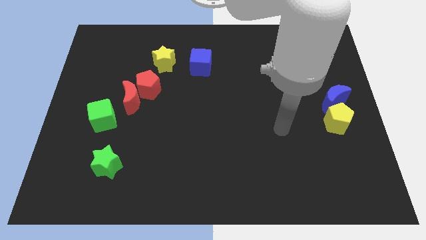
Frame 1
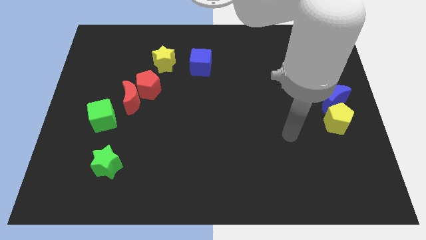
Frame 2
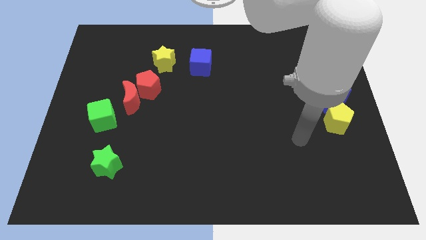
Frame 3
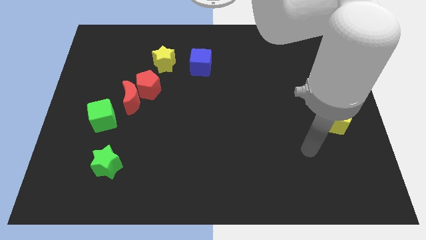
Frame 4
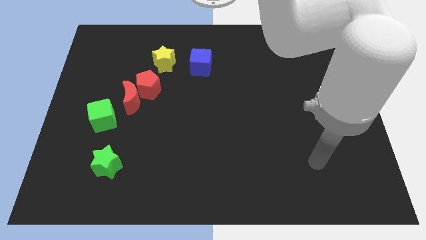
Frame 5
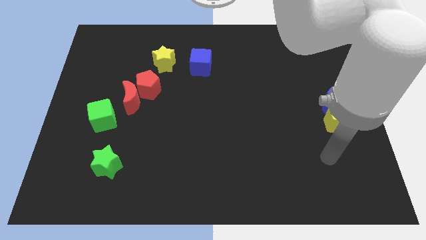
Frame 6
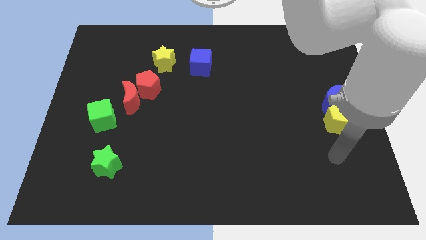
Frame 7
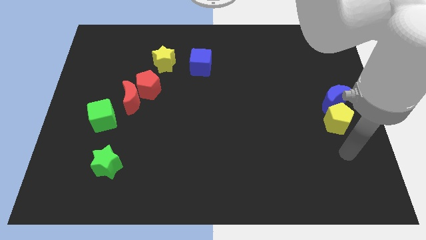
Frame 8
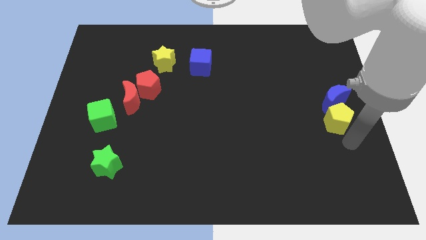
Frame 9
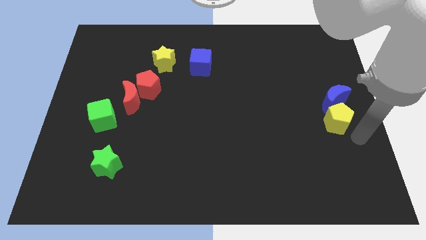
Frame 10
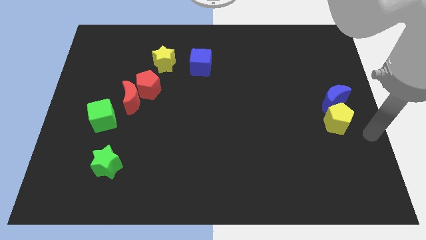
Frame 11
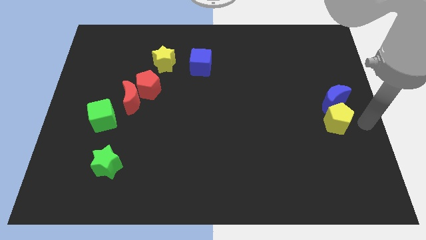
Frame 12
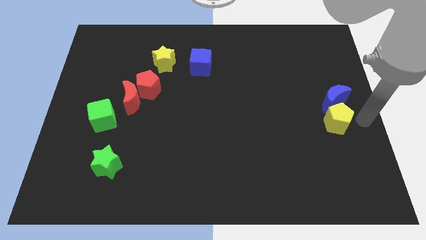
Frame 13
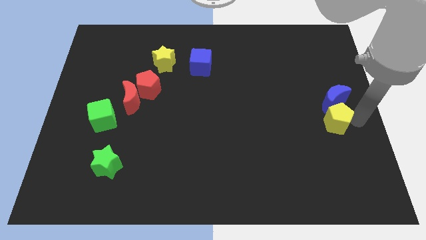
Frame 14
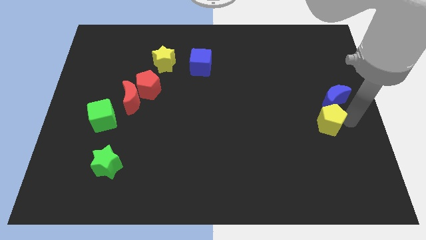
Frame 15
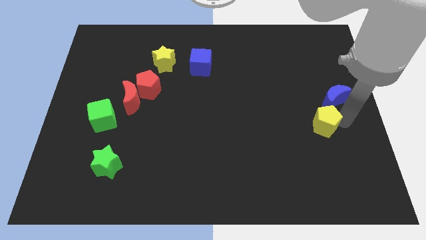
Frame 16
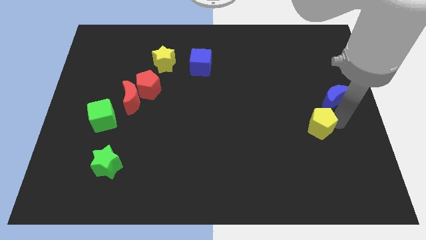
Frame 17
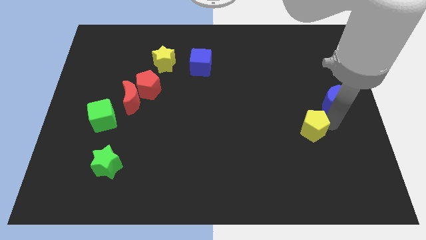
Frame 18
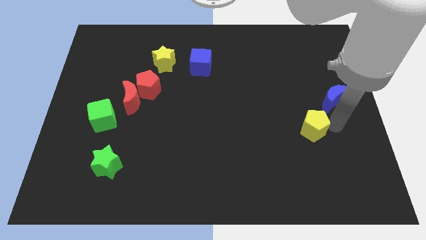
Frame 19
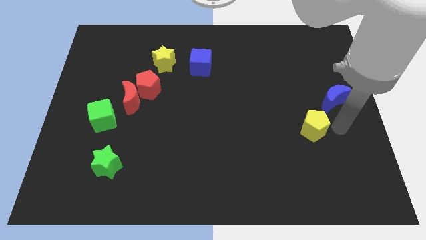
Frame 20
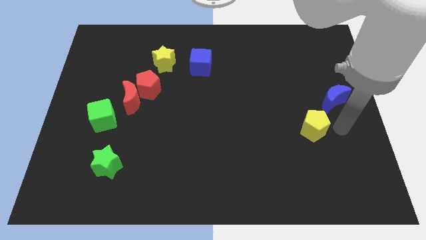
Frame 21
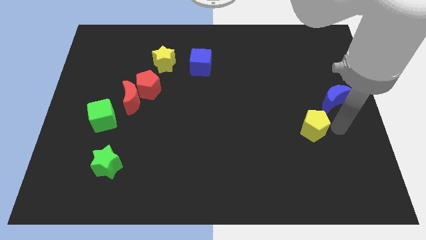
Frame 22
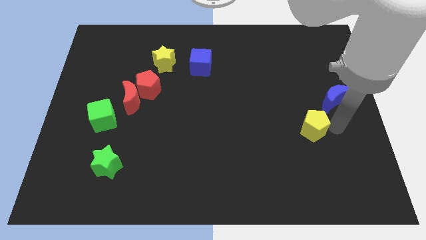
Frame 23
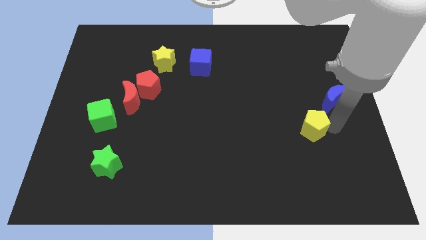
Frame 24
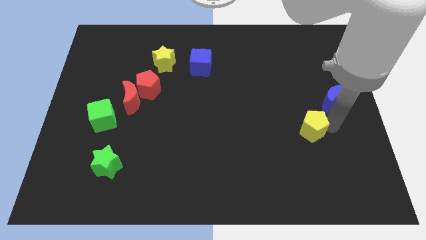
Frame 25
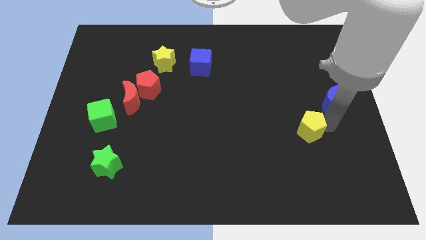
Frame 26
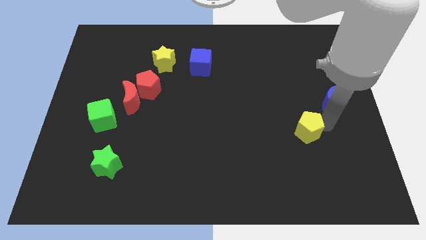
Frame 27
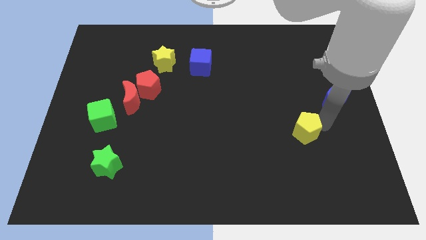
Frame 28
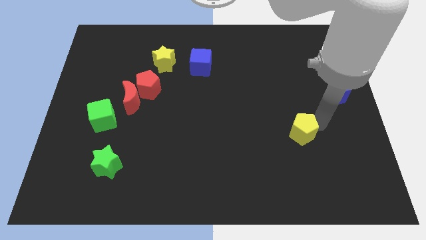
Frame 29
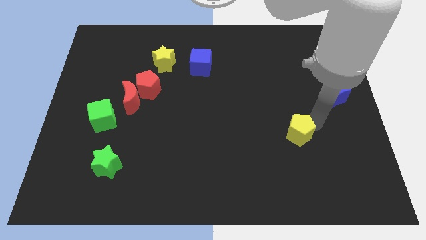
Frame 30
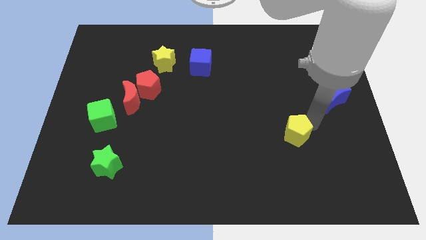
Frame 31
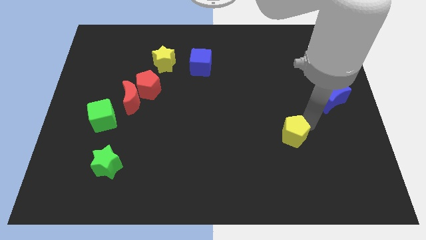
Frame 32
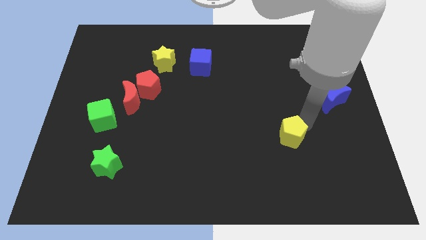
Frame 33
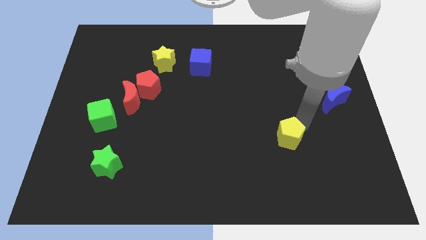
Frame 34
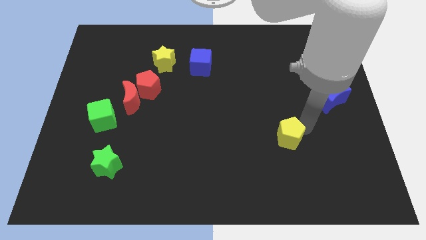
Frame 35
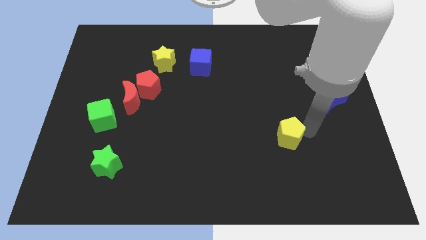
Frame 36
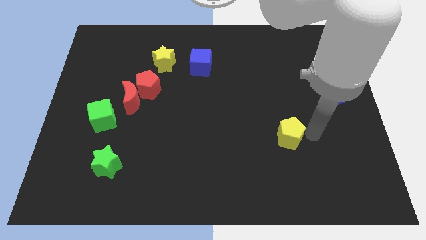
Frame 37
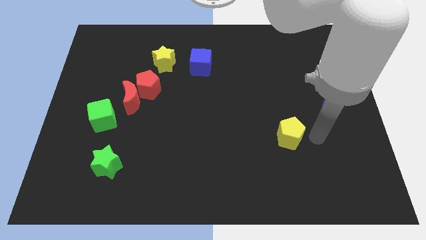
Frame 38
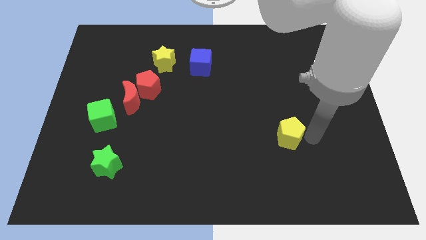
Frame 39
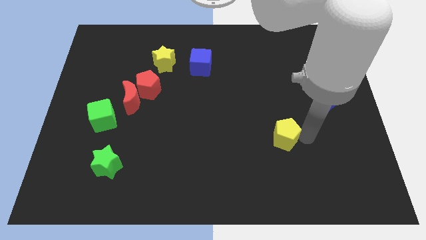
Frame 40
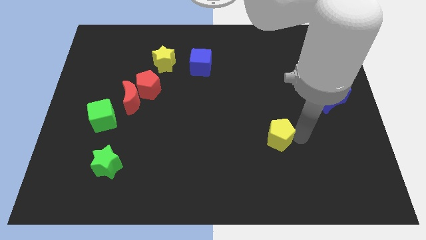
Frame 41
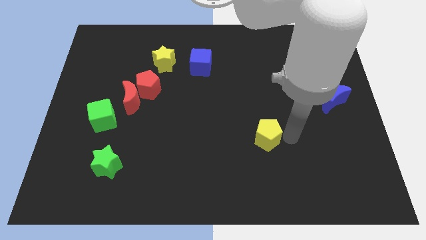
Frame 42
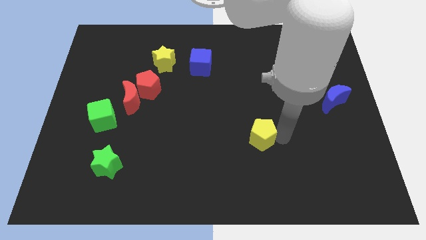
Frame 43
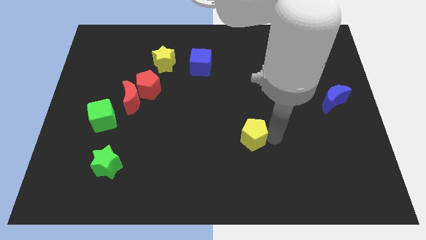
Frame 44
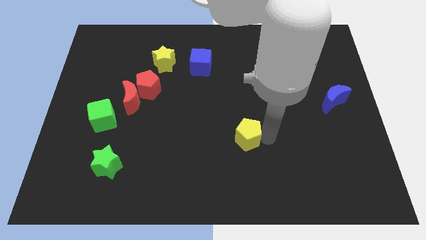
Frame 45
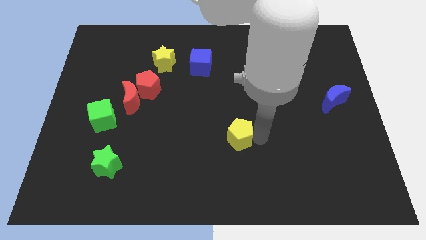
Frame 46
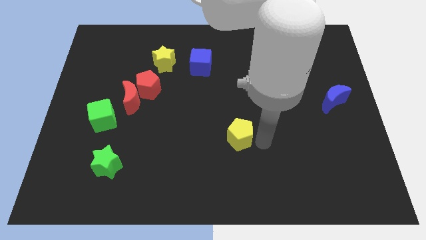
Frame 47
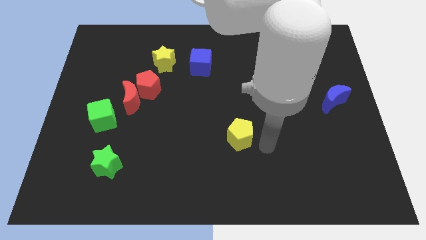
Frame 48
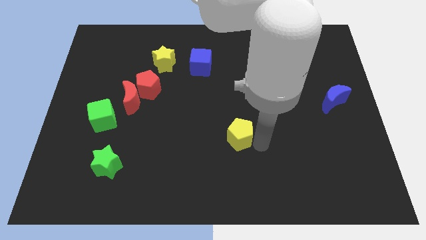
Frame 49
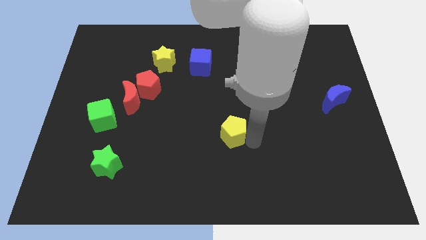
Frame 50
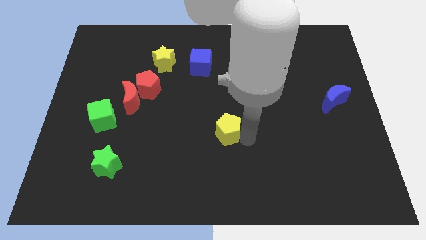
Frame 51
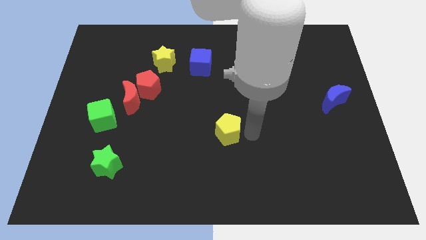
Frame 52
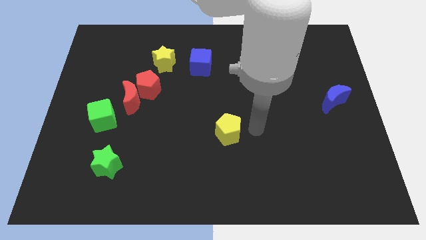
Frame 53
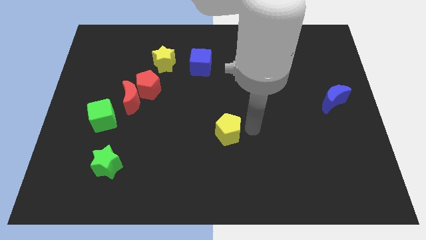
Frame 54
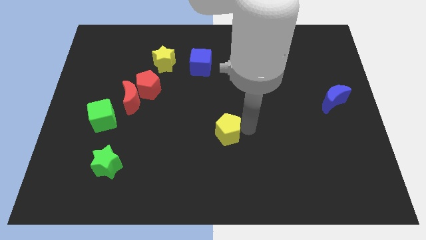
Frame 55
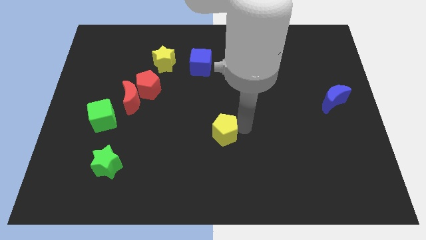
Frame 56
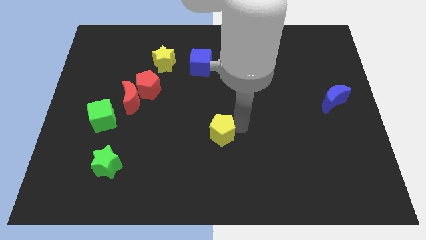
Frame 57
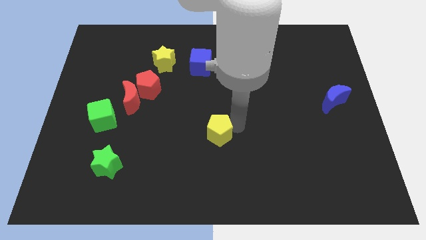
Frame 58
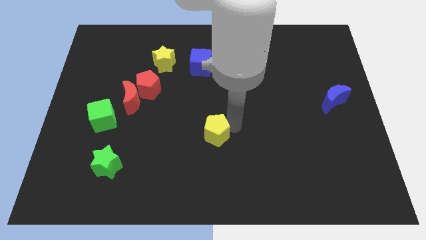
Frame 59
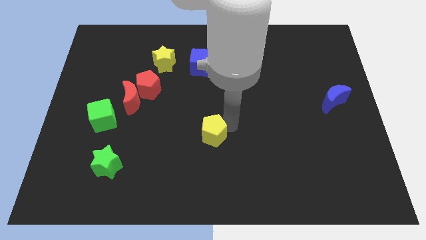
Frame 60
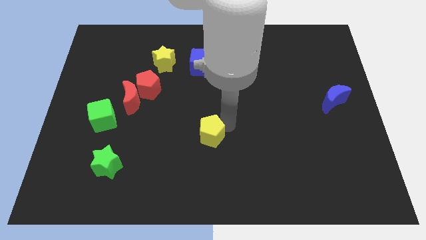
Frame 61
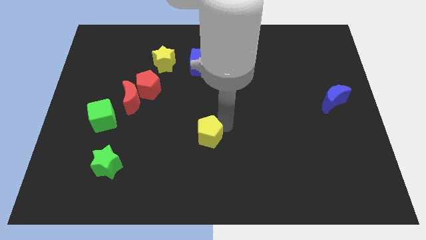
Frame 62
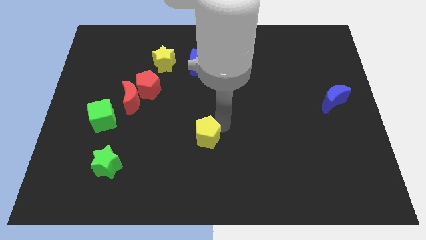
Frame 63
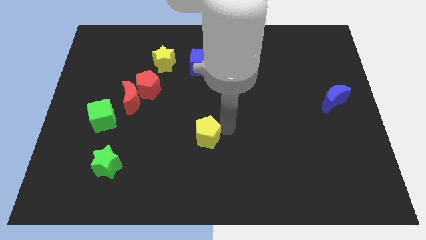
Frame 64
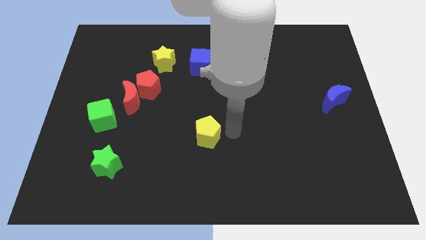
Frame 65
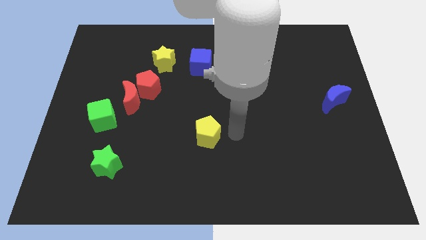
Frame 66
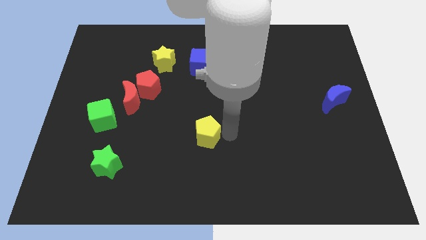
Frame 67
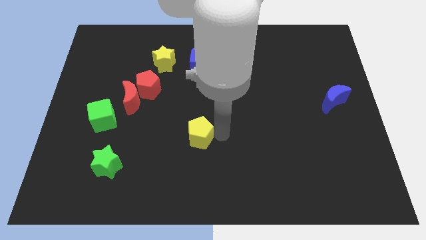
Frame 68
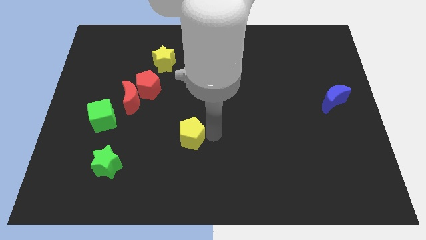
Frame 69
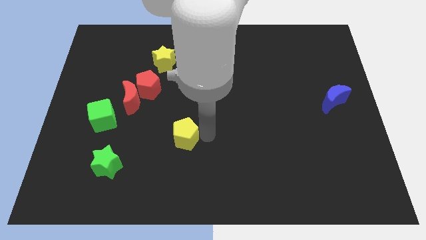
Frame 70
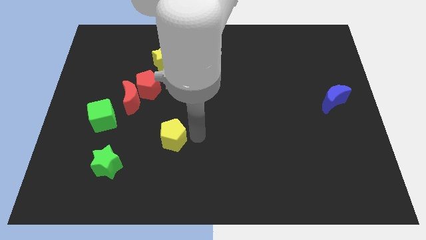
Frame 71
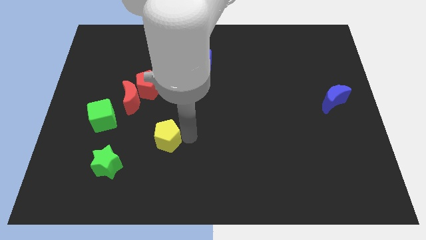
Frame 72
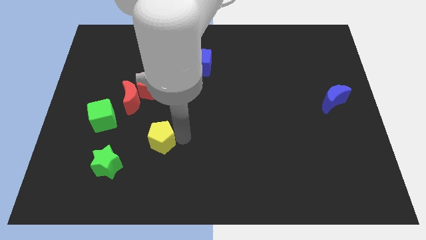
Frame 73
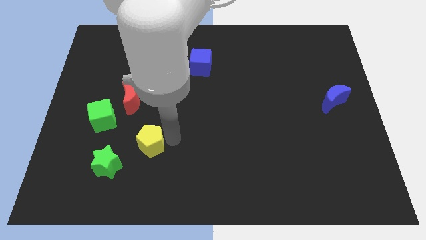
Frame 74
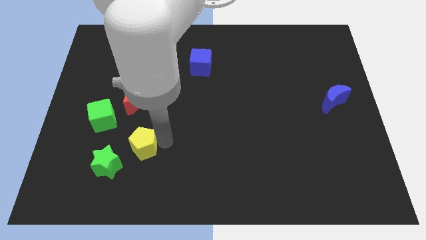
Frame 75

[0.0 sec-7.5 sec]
push the yellow pentagon below the red moon
